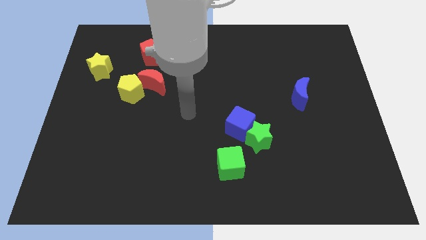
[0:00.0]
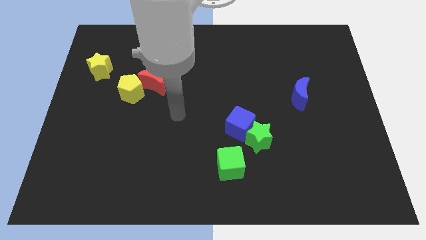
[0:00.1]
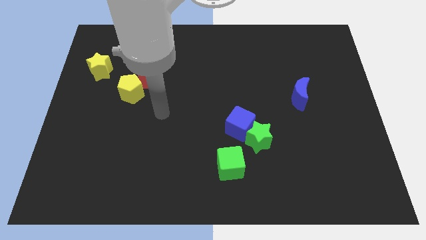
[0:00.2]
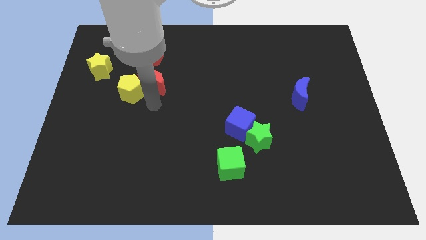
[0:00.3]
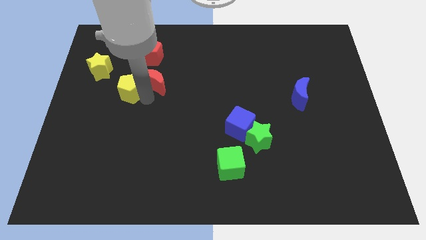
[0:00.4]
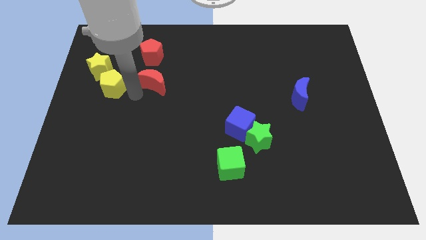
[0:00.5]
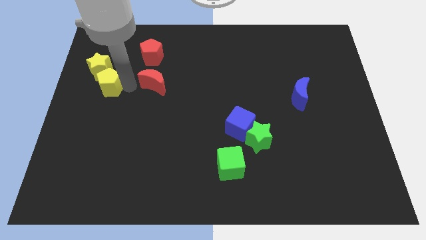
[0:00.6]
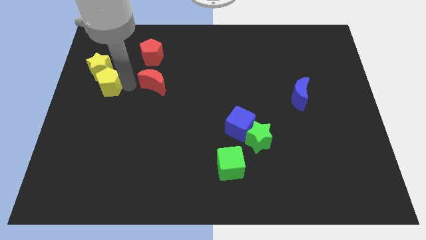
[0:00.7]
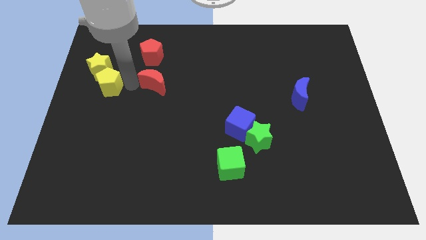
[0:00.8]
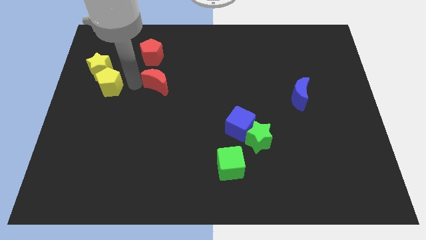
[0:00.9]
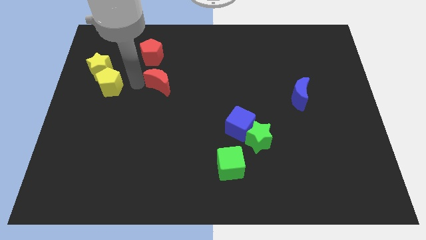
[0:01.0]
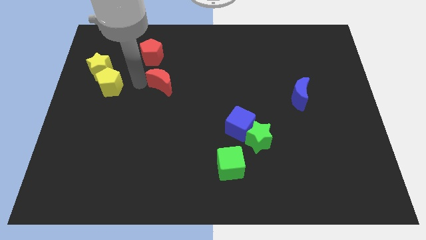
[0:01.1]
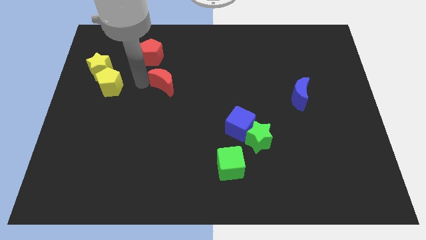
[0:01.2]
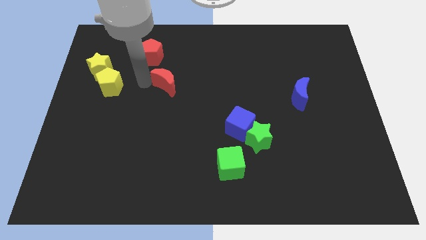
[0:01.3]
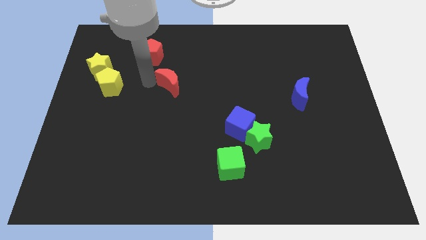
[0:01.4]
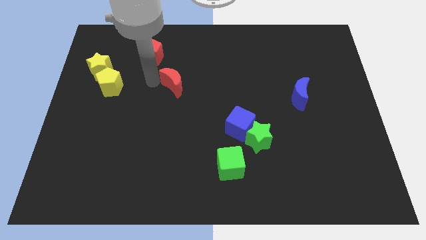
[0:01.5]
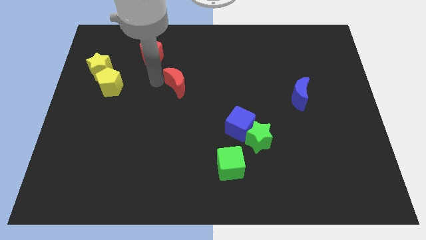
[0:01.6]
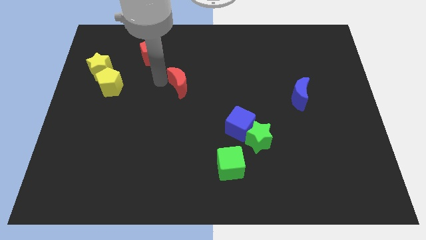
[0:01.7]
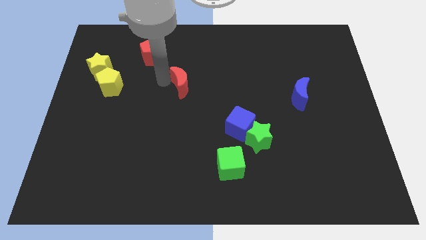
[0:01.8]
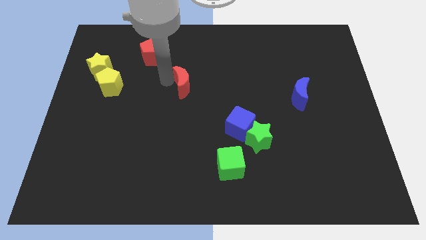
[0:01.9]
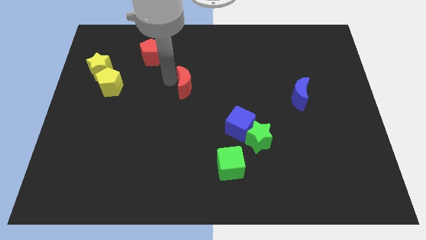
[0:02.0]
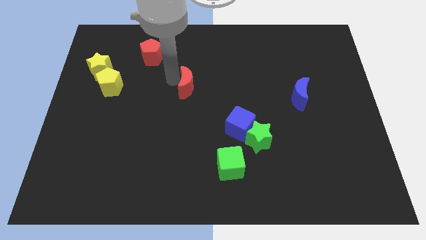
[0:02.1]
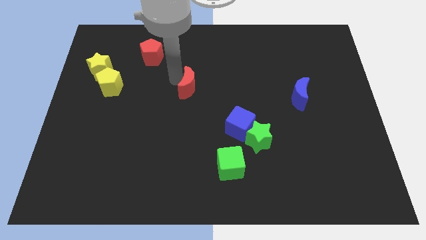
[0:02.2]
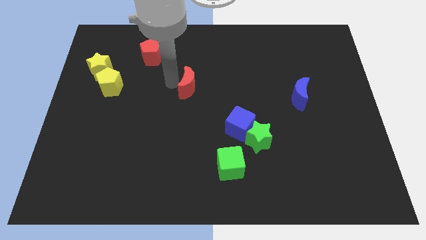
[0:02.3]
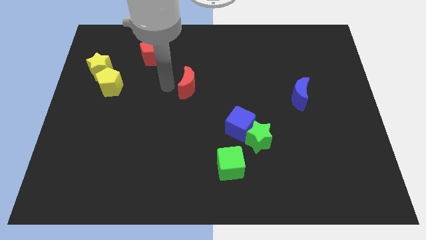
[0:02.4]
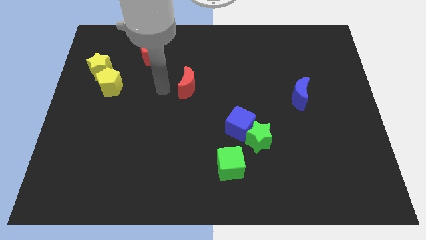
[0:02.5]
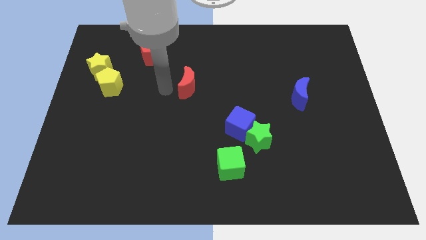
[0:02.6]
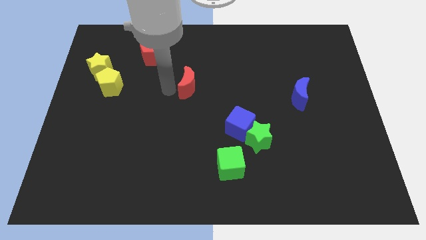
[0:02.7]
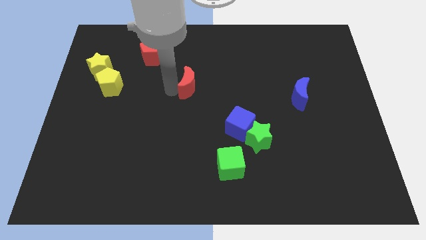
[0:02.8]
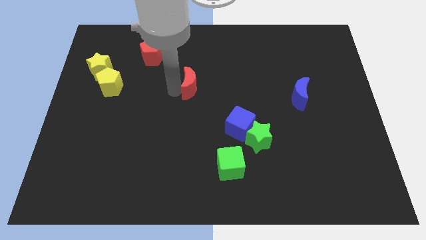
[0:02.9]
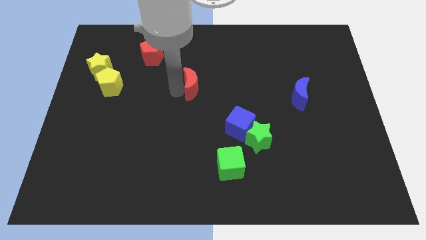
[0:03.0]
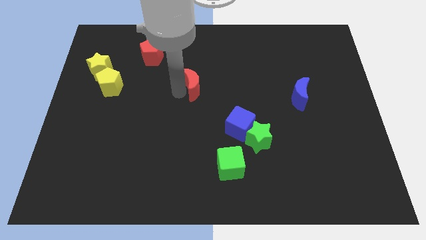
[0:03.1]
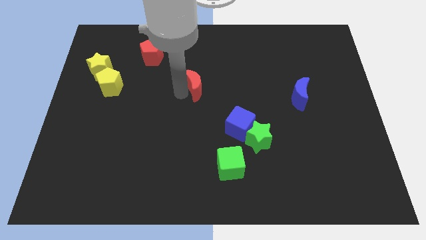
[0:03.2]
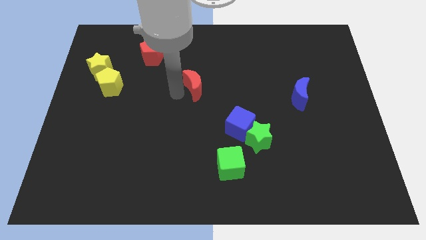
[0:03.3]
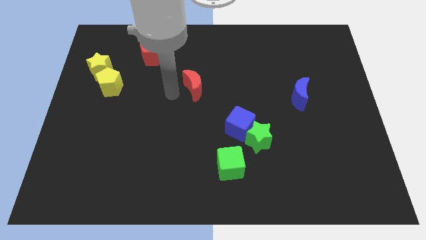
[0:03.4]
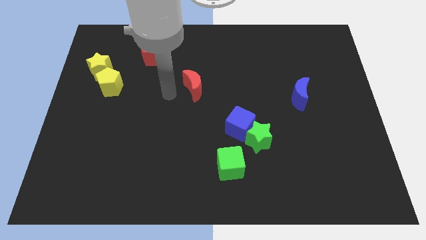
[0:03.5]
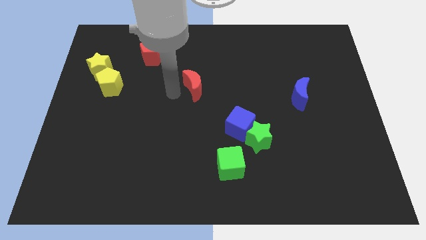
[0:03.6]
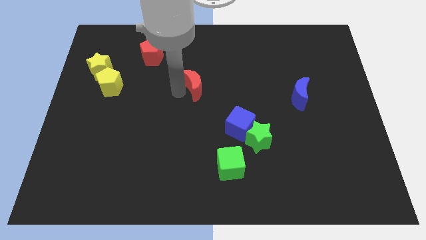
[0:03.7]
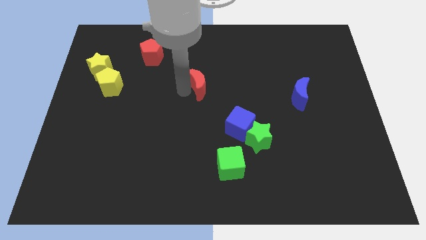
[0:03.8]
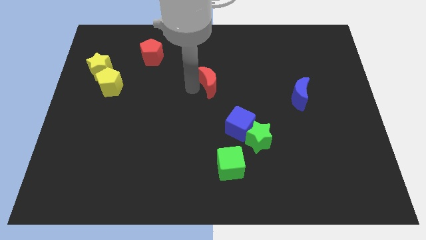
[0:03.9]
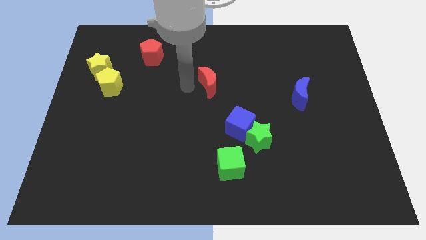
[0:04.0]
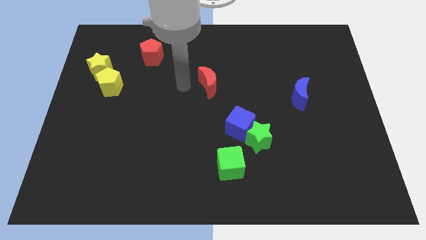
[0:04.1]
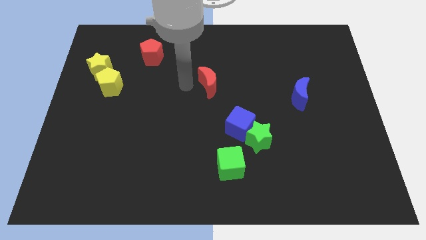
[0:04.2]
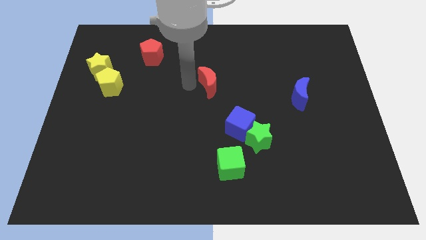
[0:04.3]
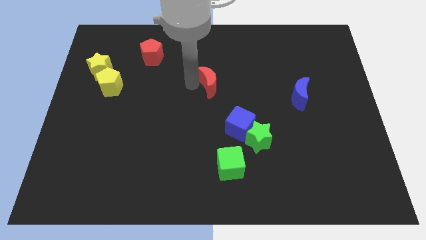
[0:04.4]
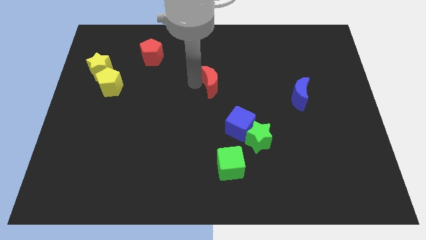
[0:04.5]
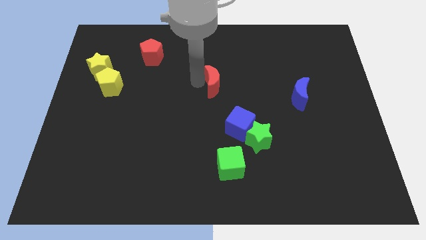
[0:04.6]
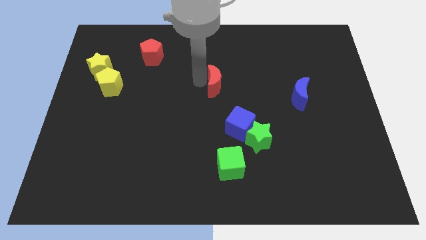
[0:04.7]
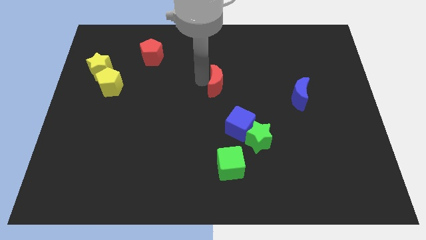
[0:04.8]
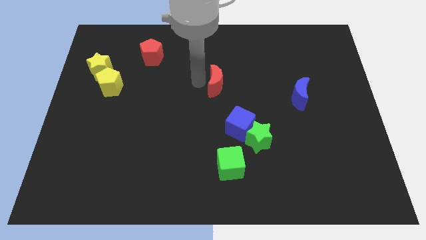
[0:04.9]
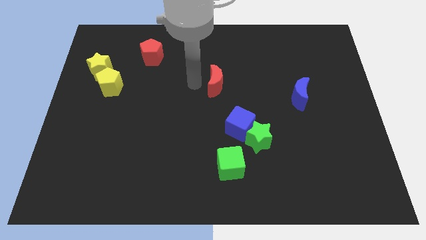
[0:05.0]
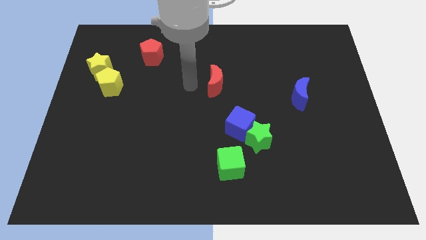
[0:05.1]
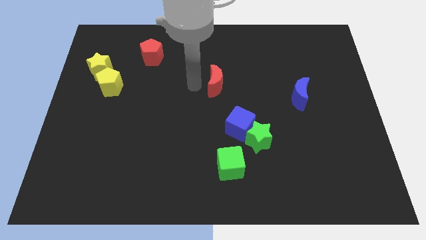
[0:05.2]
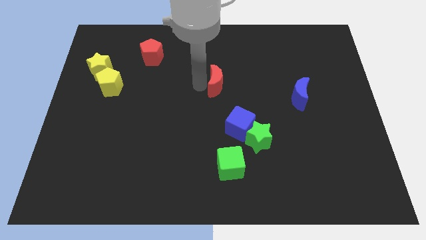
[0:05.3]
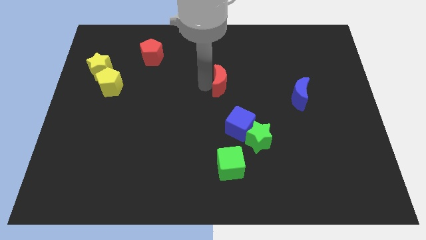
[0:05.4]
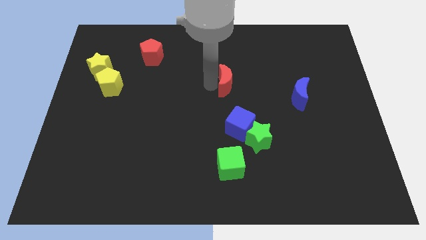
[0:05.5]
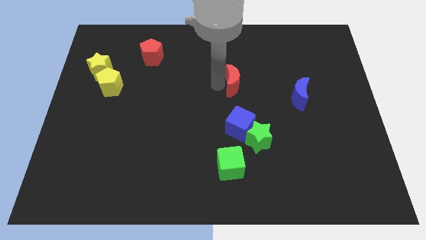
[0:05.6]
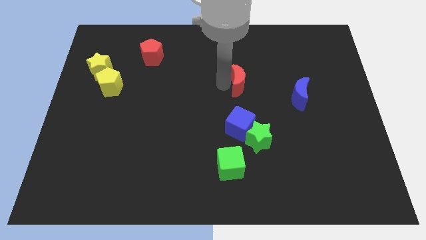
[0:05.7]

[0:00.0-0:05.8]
push the red moon to the right

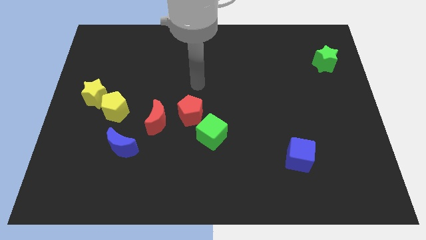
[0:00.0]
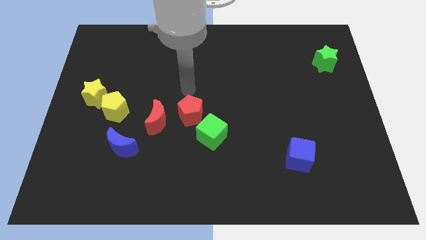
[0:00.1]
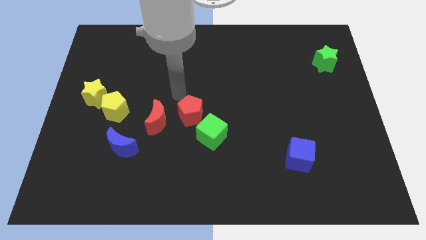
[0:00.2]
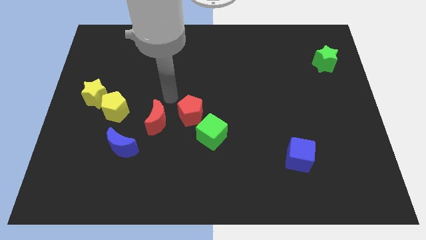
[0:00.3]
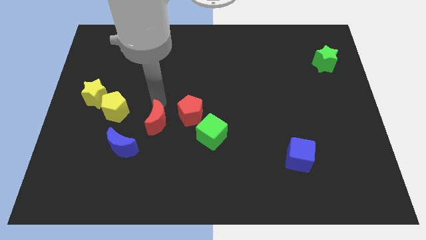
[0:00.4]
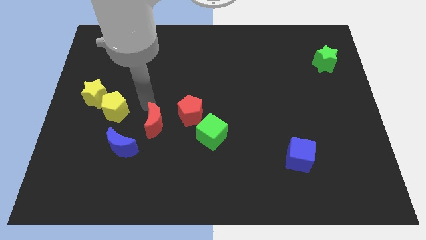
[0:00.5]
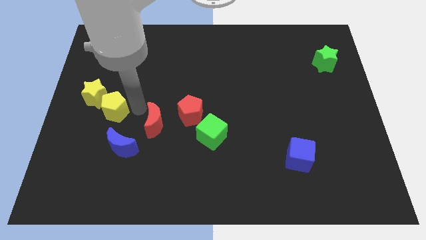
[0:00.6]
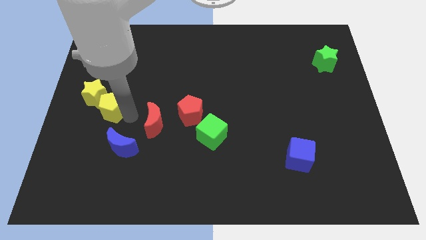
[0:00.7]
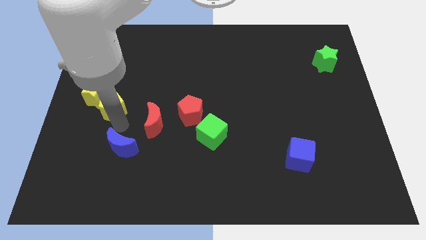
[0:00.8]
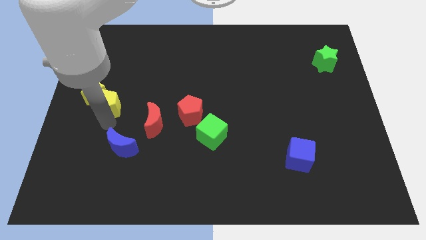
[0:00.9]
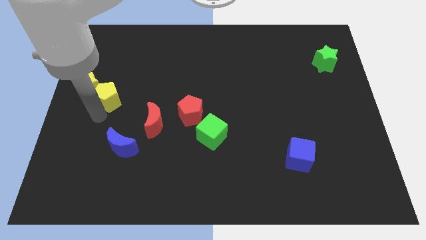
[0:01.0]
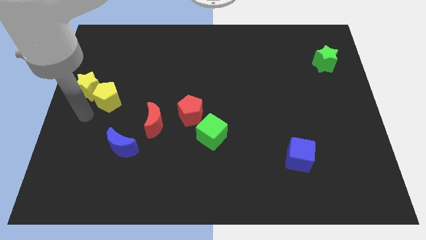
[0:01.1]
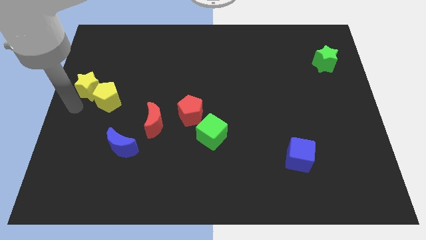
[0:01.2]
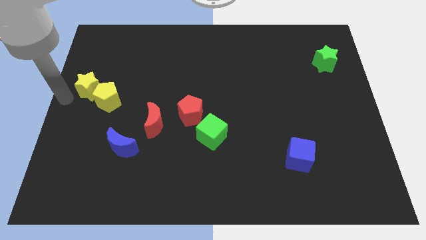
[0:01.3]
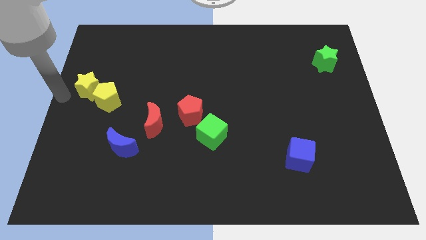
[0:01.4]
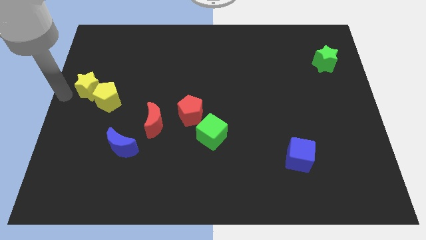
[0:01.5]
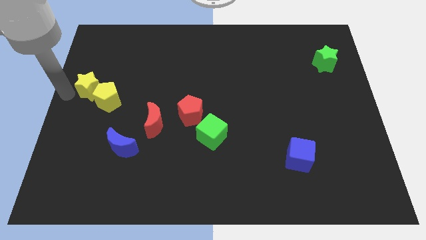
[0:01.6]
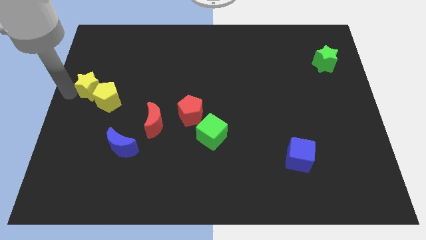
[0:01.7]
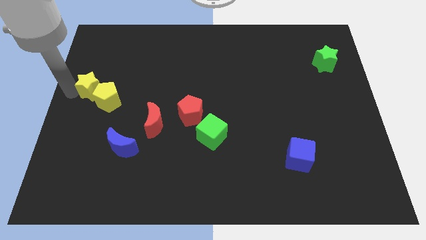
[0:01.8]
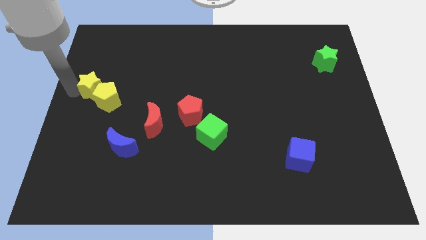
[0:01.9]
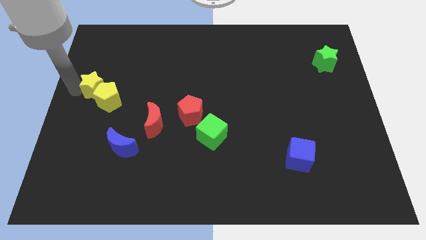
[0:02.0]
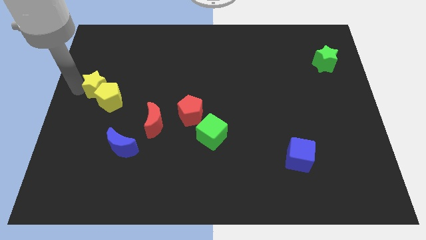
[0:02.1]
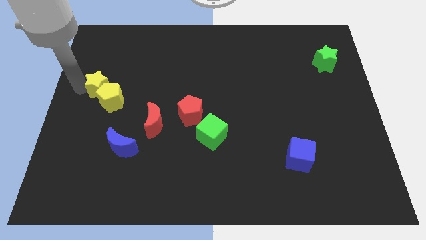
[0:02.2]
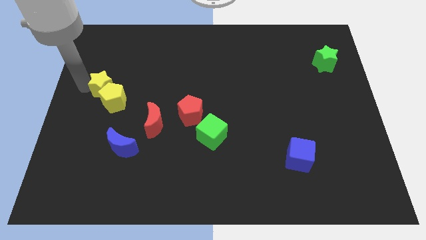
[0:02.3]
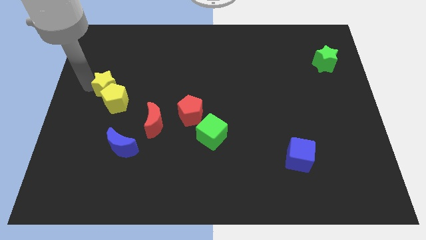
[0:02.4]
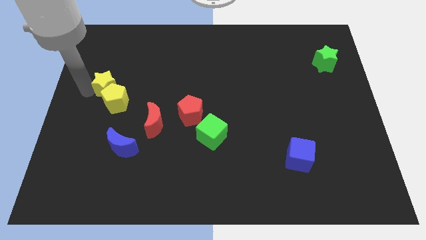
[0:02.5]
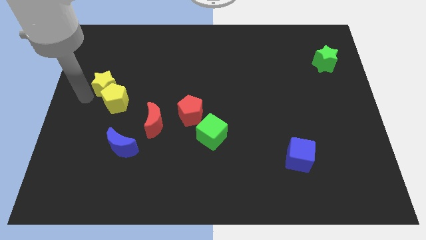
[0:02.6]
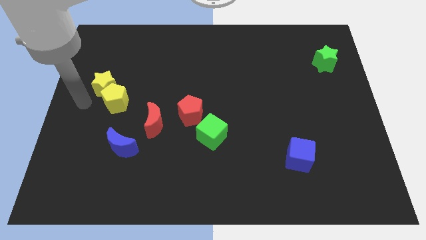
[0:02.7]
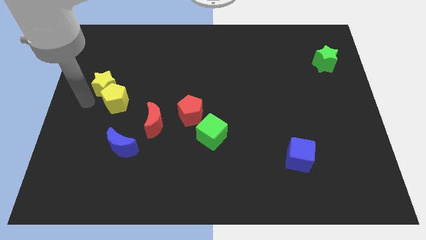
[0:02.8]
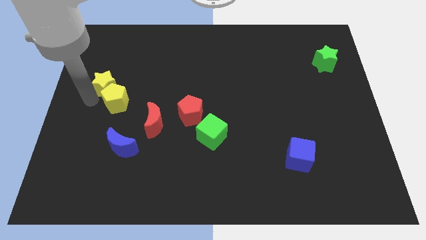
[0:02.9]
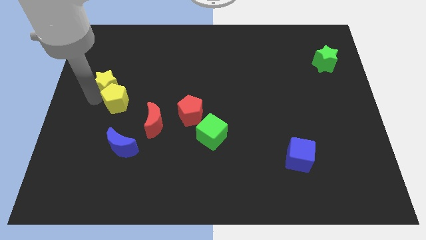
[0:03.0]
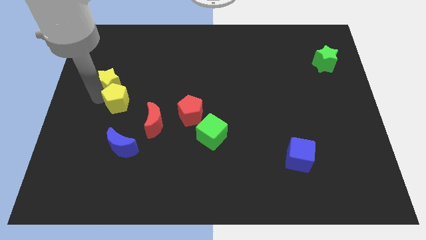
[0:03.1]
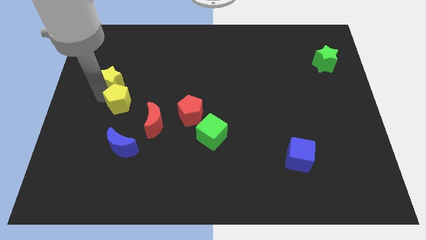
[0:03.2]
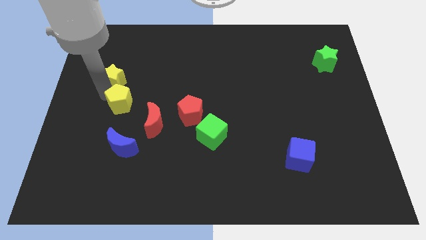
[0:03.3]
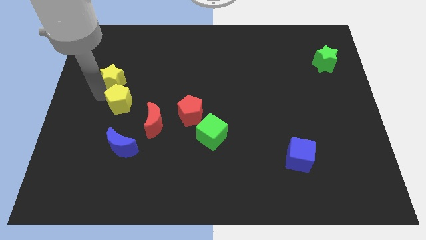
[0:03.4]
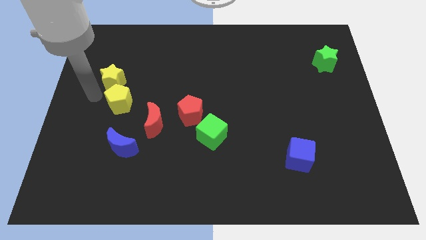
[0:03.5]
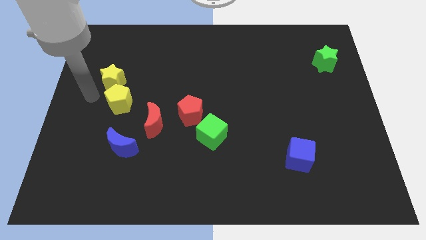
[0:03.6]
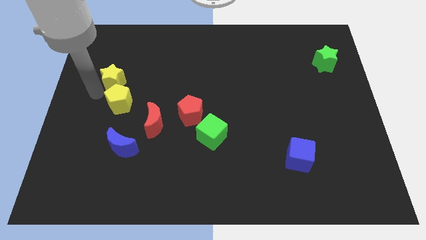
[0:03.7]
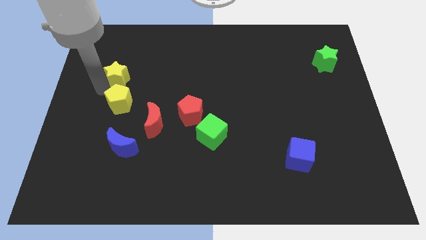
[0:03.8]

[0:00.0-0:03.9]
slide the yellow star a little bit diagonally upwards and right
